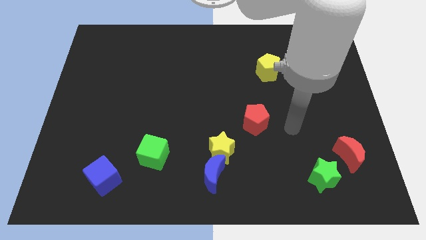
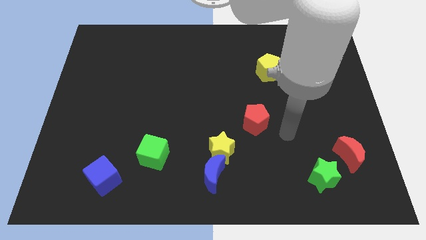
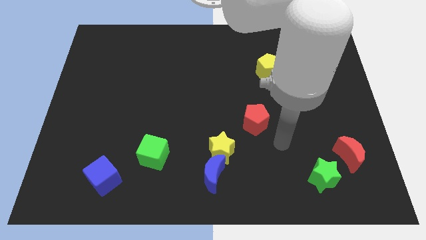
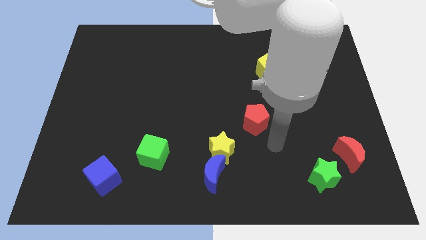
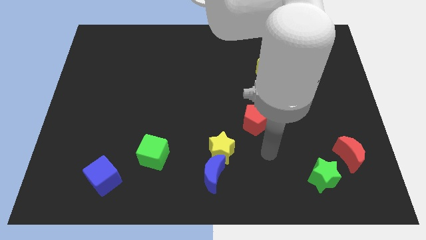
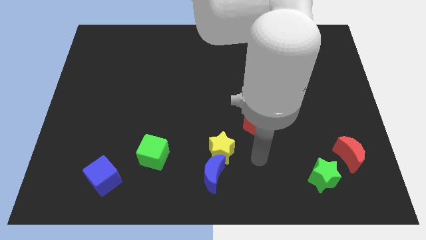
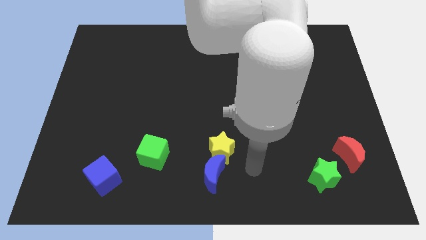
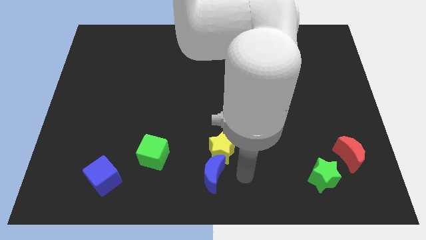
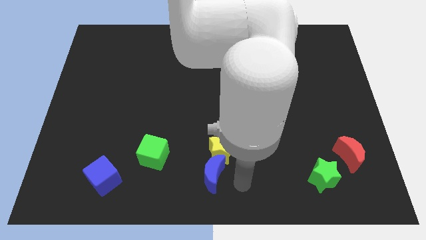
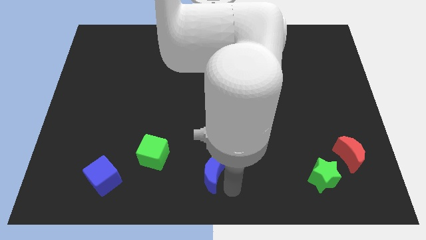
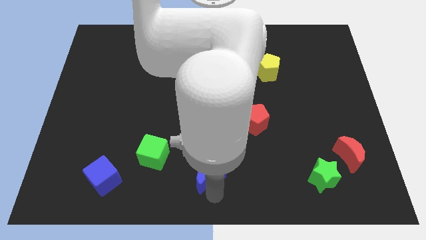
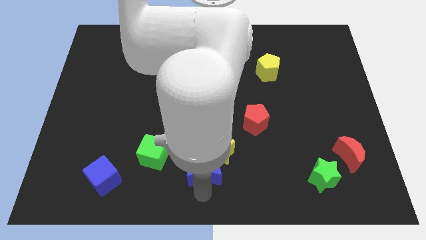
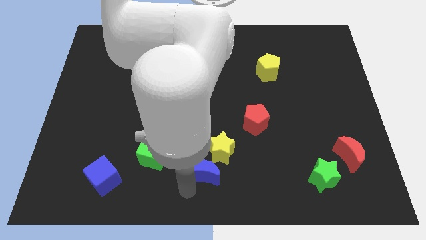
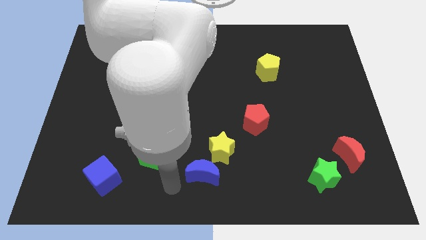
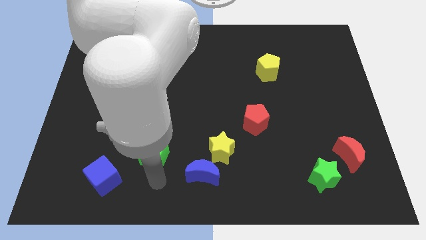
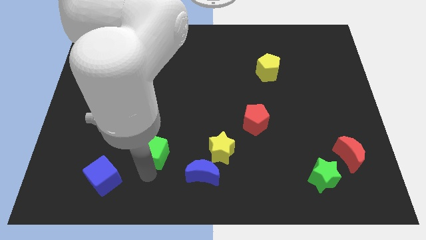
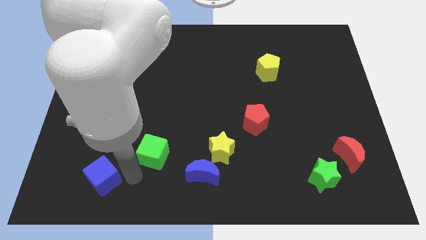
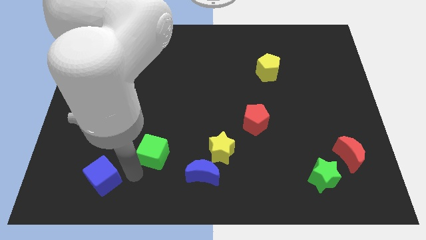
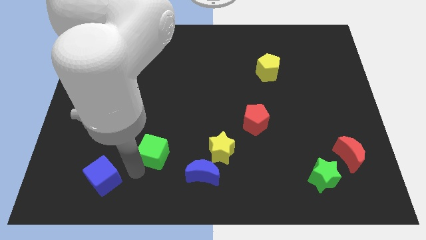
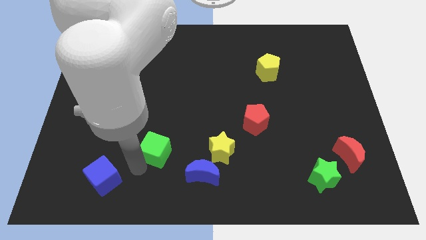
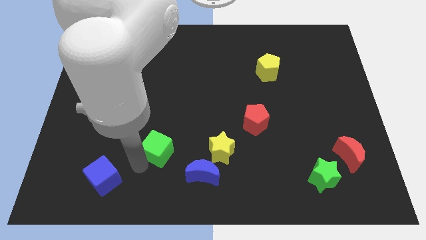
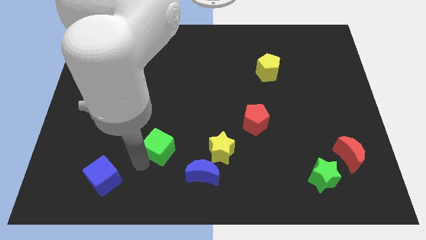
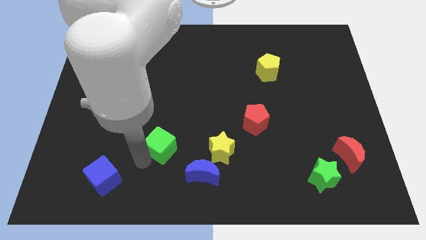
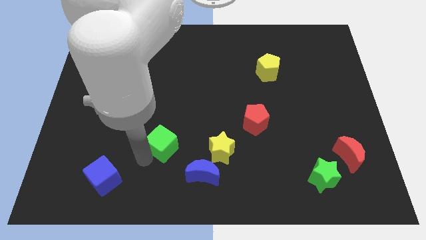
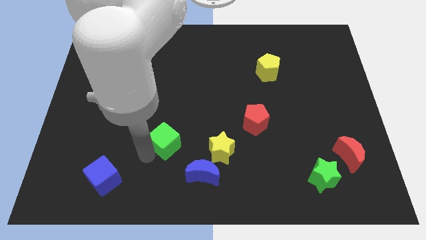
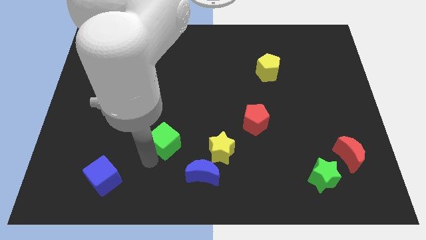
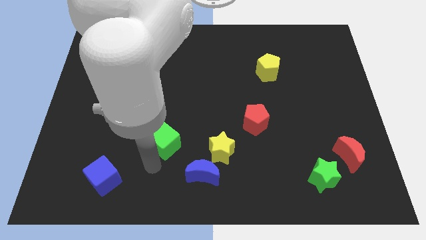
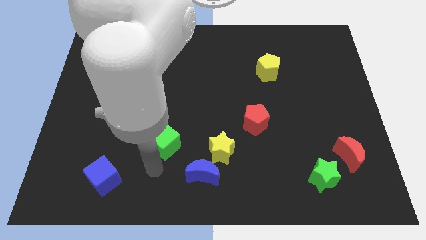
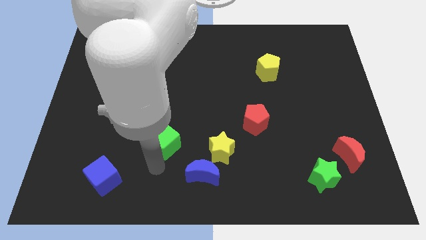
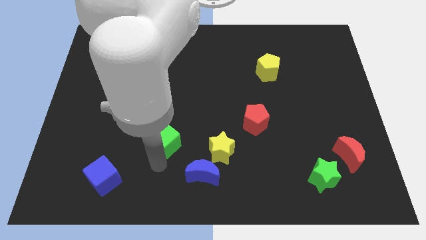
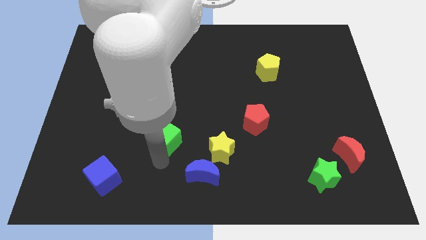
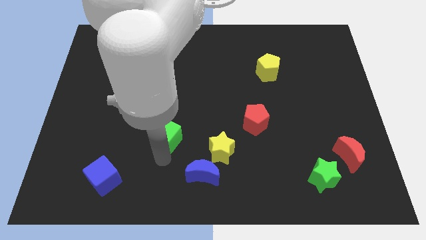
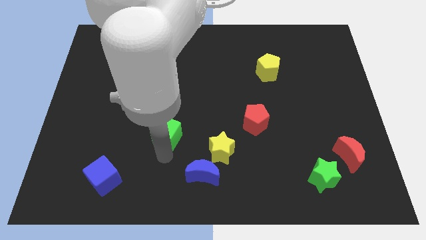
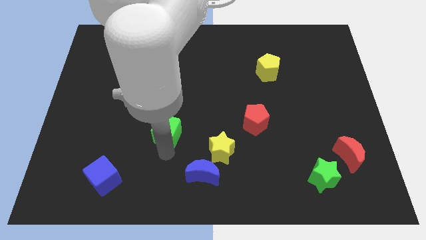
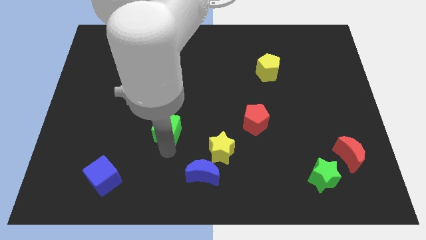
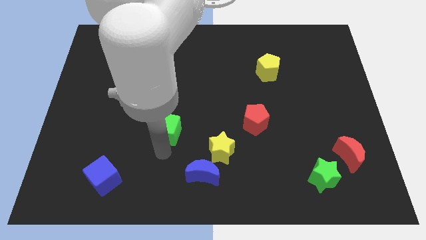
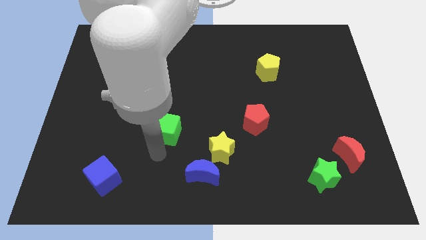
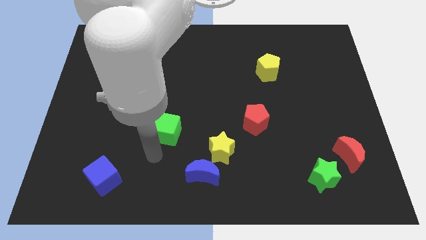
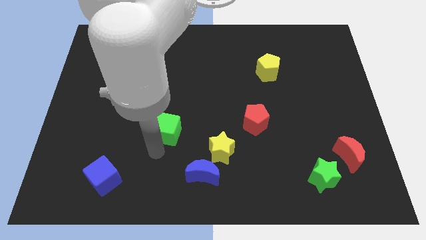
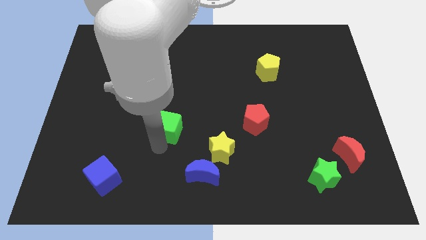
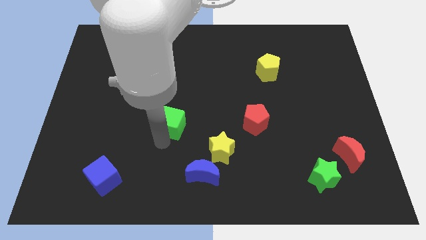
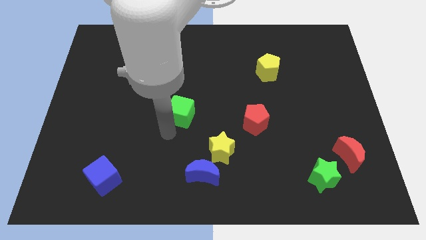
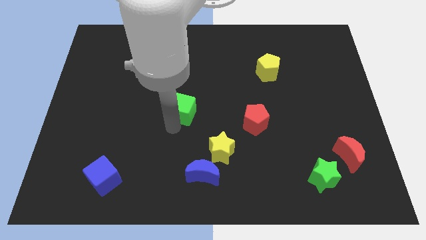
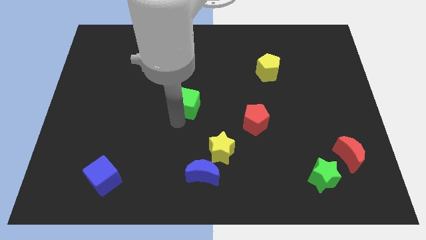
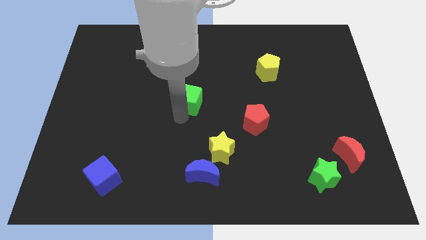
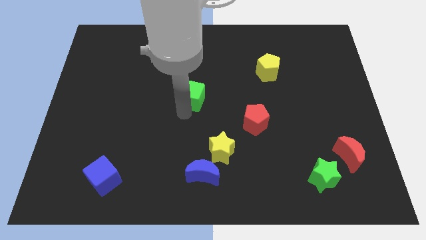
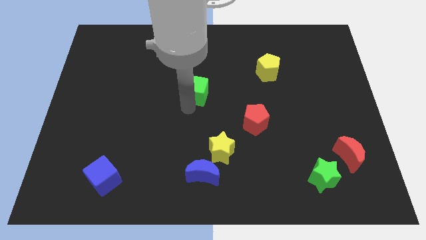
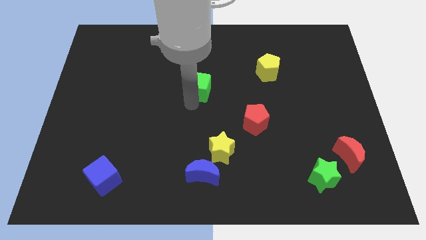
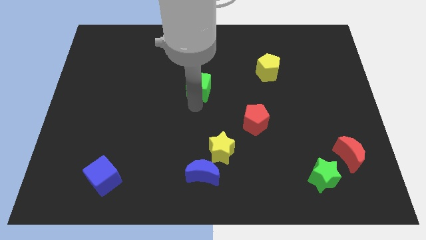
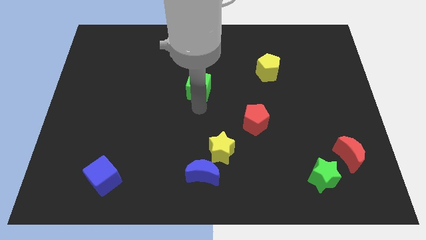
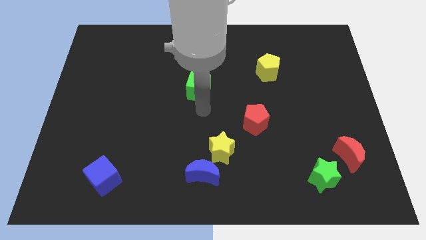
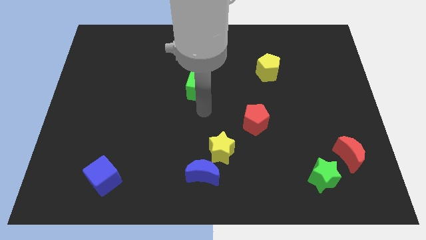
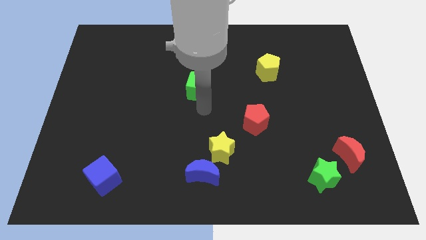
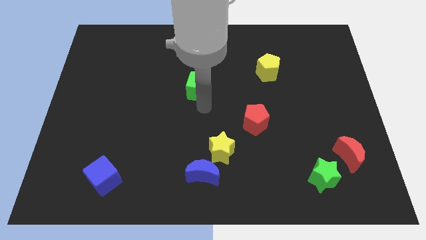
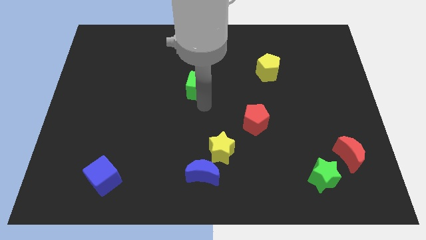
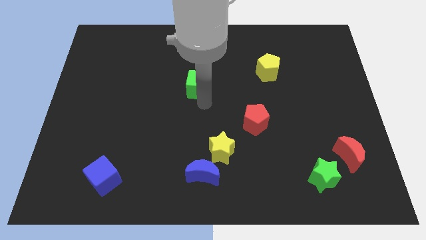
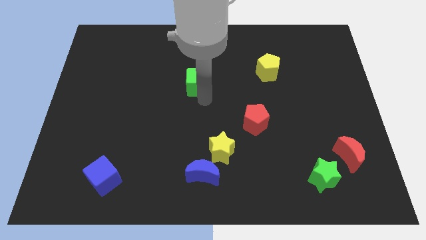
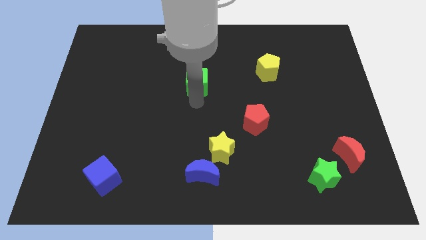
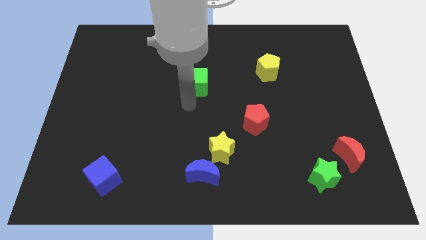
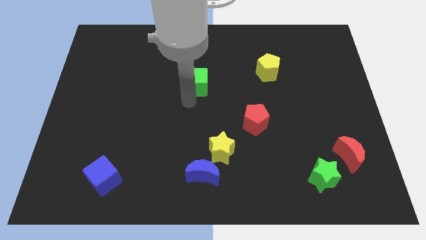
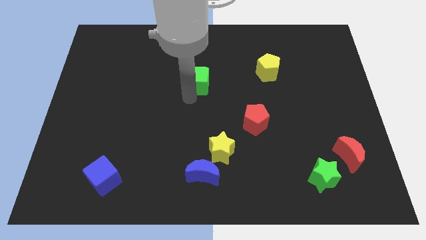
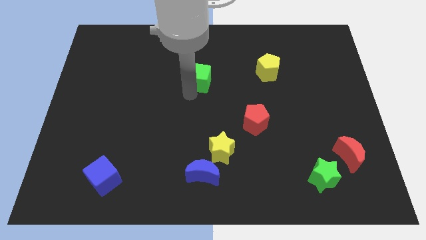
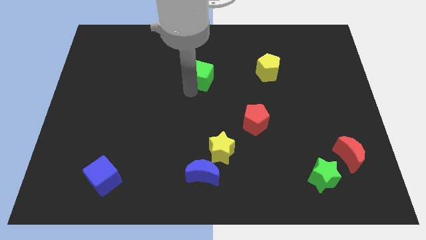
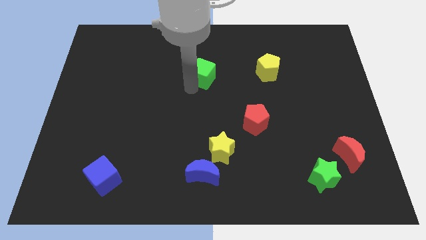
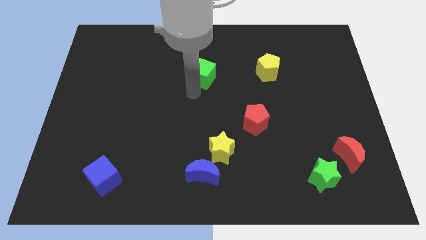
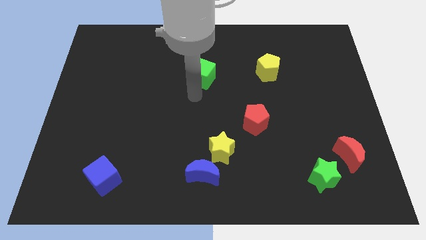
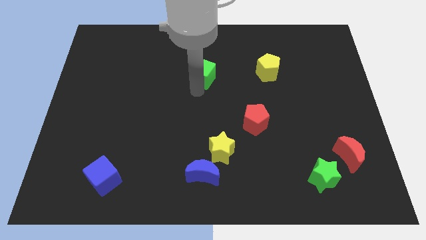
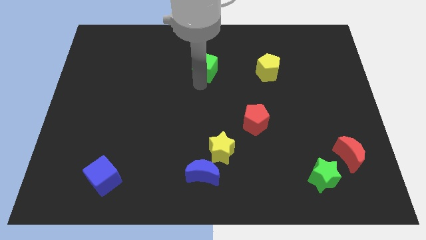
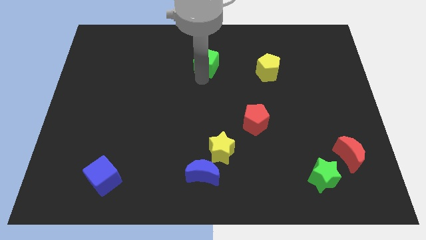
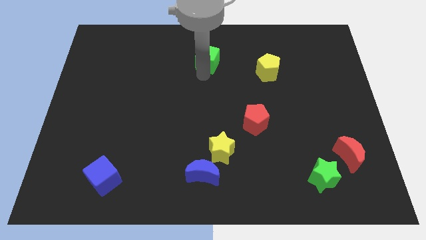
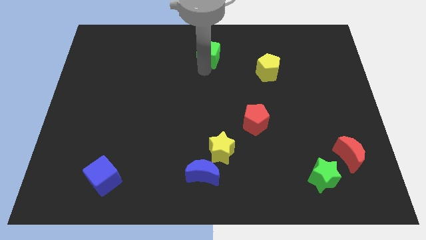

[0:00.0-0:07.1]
move the green cube to the top side
